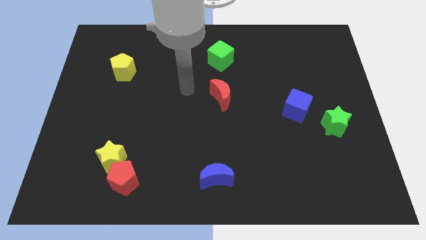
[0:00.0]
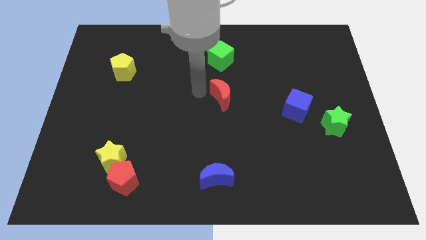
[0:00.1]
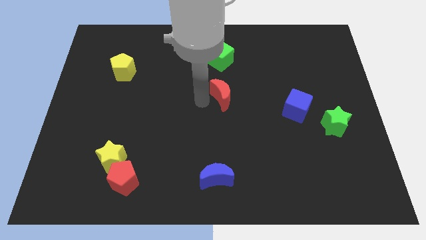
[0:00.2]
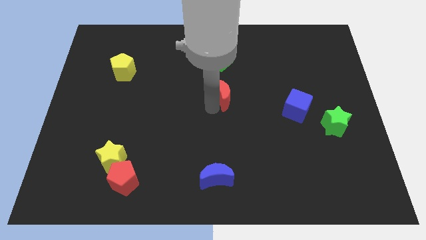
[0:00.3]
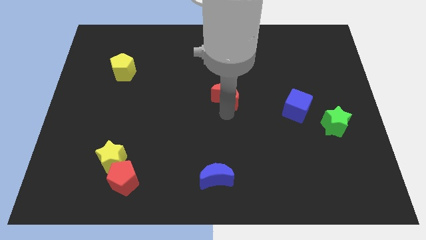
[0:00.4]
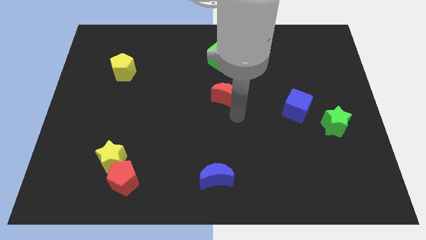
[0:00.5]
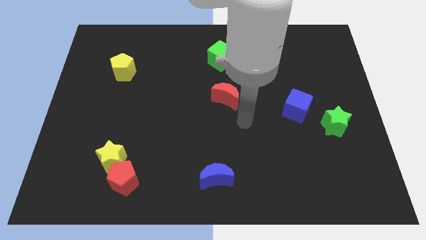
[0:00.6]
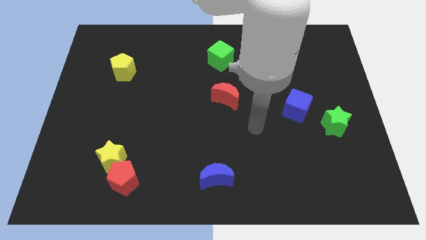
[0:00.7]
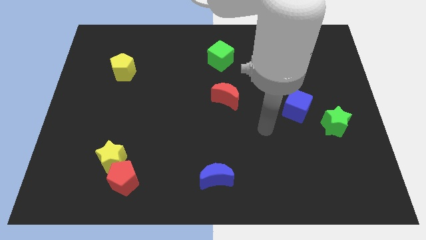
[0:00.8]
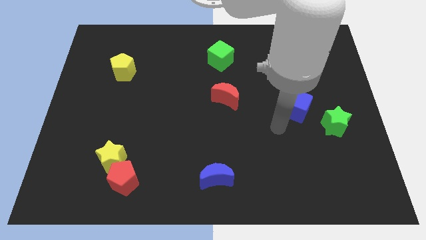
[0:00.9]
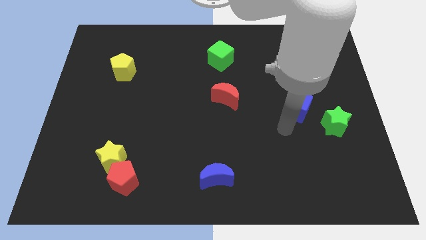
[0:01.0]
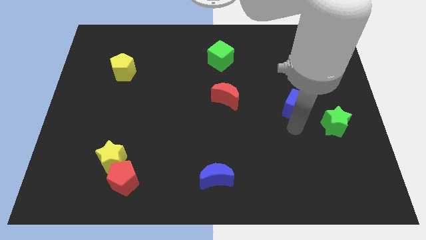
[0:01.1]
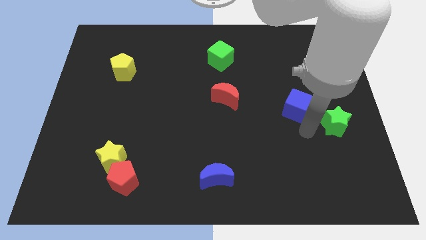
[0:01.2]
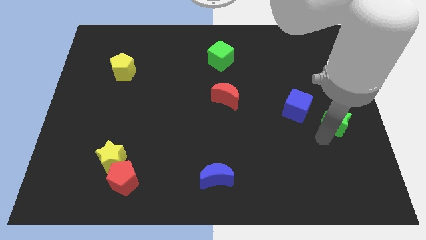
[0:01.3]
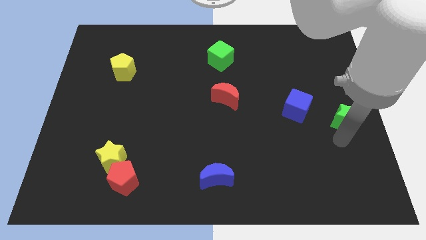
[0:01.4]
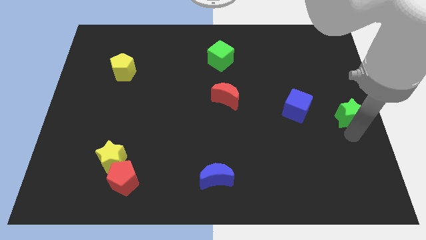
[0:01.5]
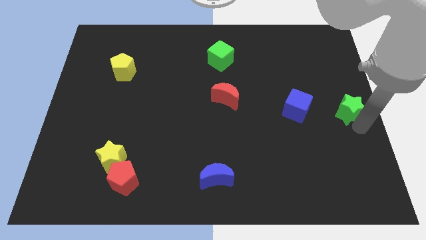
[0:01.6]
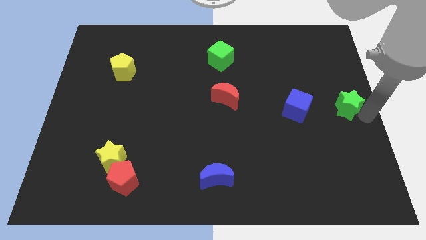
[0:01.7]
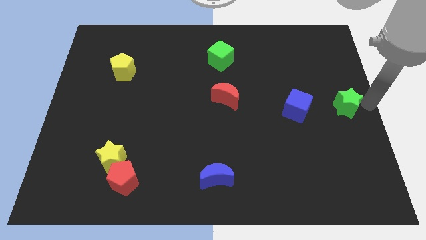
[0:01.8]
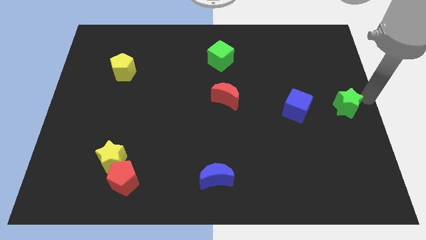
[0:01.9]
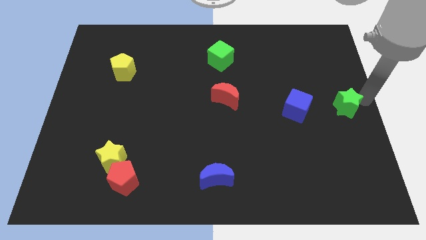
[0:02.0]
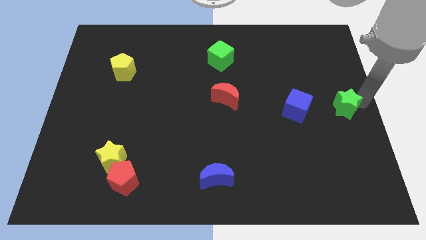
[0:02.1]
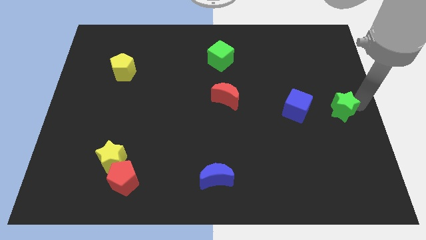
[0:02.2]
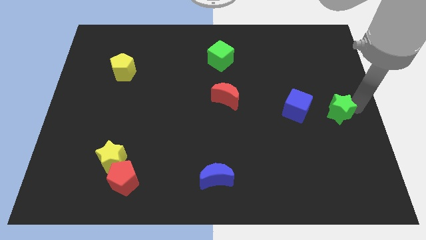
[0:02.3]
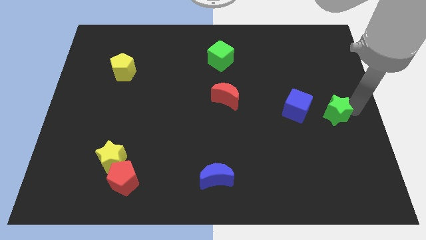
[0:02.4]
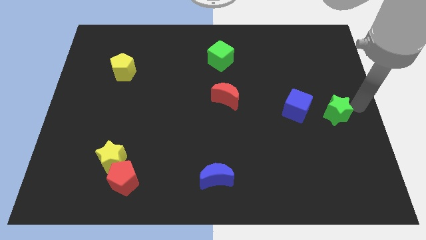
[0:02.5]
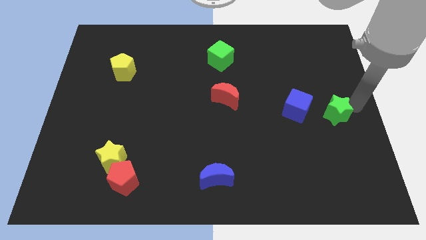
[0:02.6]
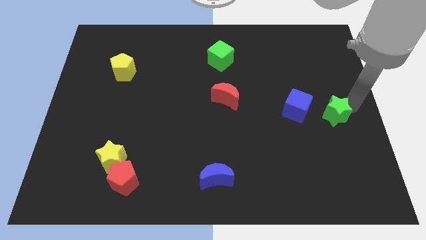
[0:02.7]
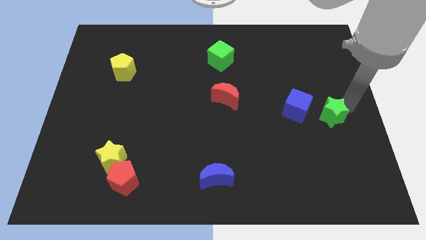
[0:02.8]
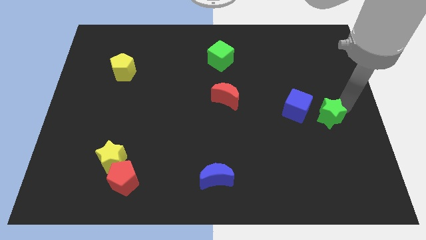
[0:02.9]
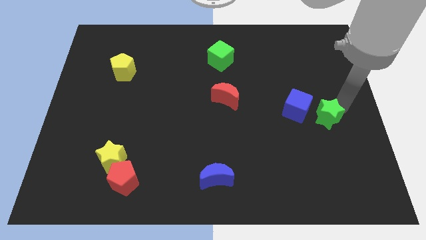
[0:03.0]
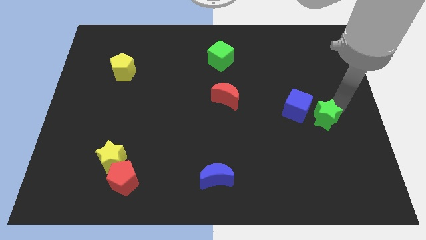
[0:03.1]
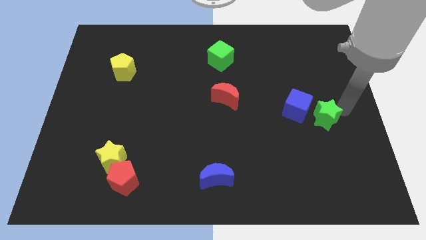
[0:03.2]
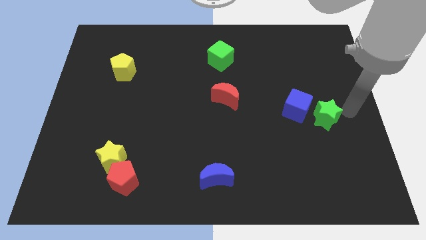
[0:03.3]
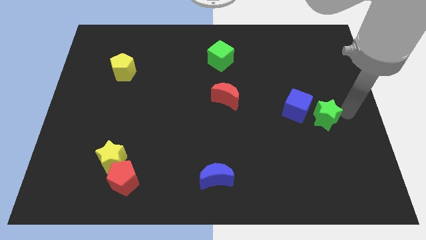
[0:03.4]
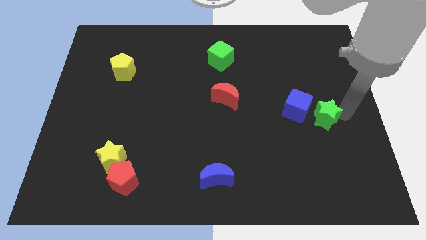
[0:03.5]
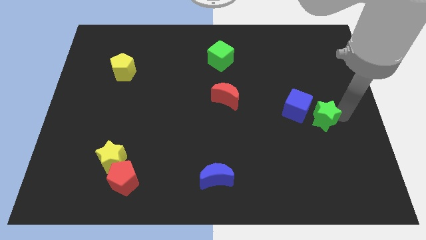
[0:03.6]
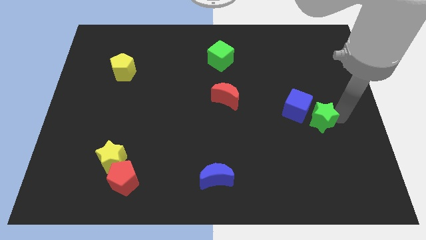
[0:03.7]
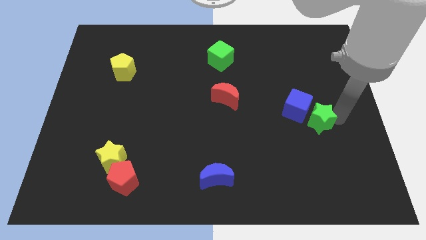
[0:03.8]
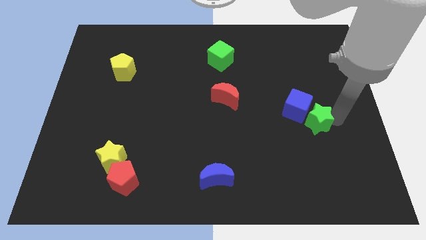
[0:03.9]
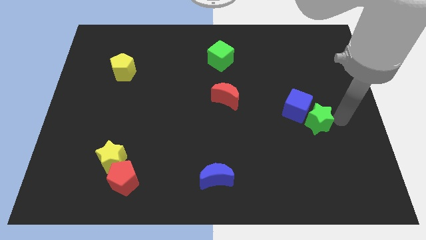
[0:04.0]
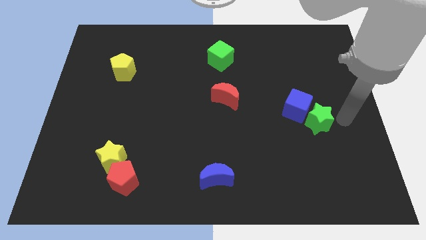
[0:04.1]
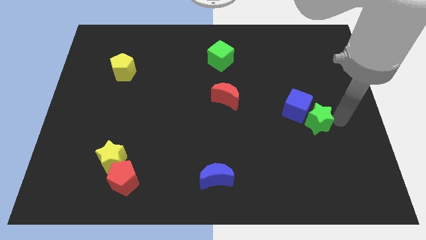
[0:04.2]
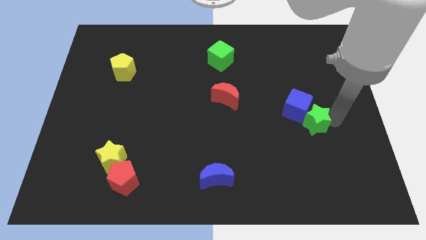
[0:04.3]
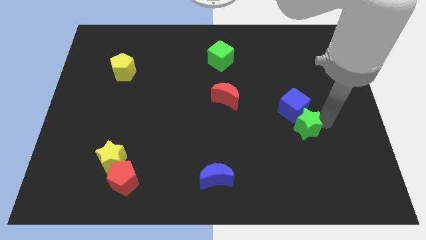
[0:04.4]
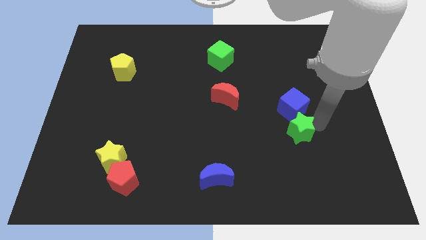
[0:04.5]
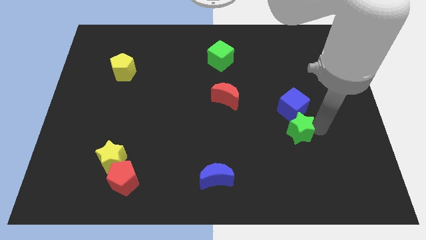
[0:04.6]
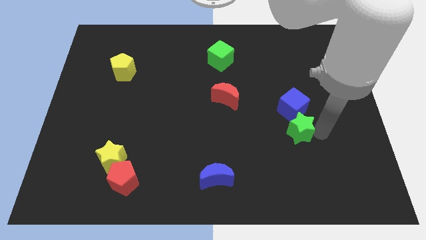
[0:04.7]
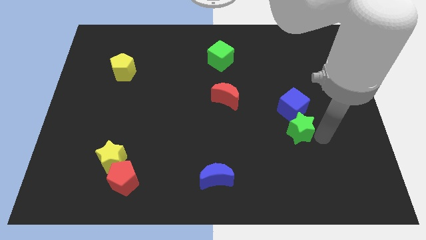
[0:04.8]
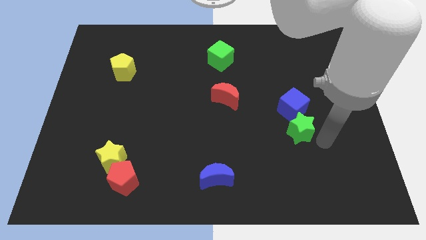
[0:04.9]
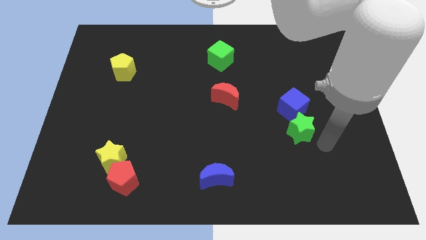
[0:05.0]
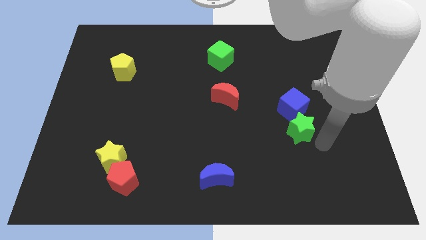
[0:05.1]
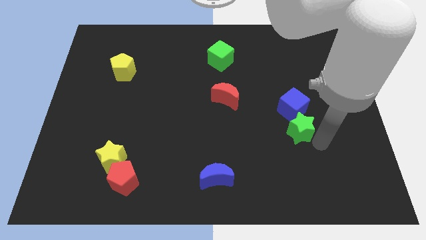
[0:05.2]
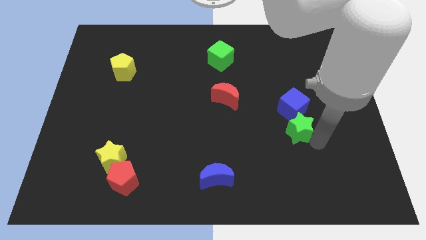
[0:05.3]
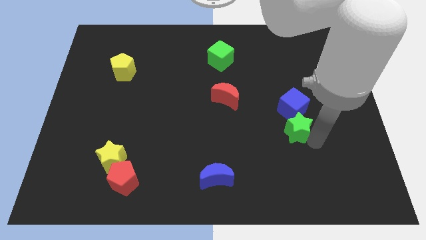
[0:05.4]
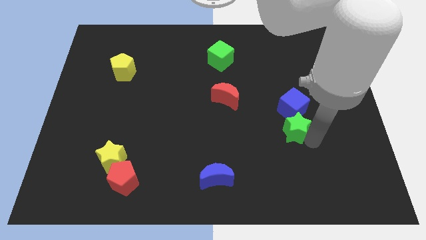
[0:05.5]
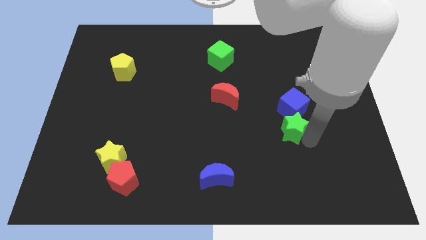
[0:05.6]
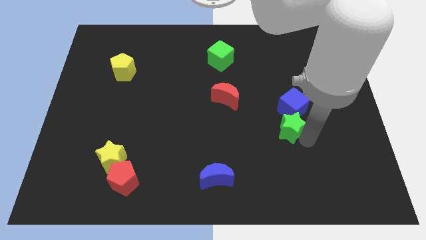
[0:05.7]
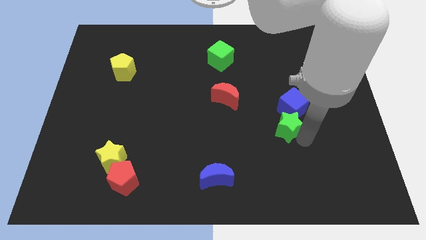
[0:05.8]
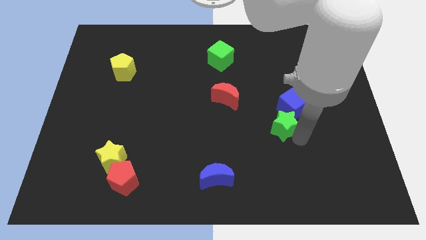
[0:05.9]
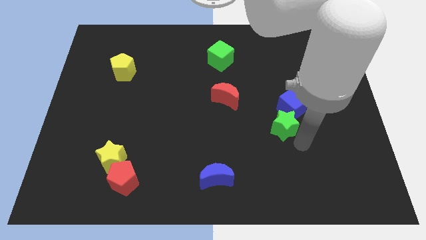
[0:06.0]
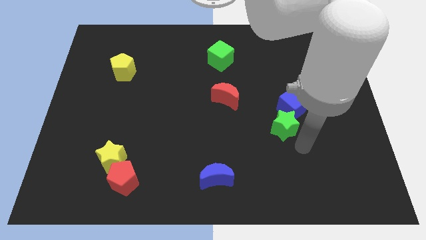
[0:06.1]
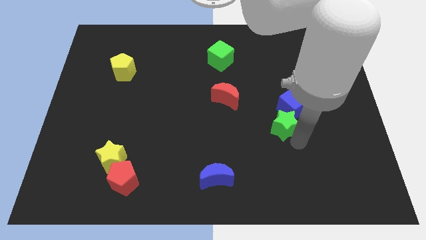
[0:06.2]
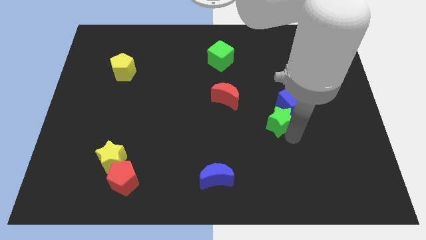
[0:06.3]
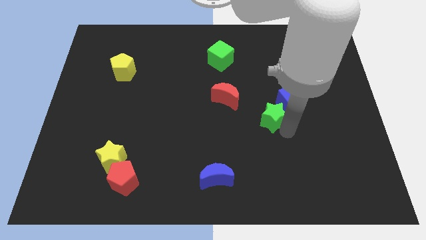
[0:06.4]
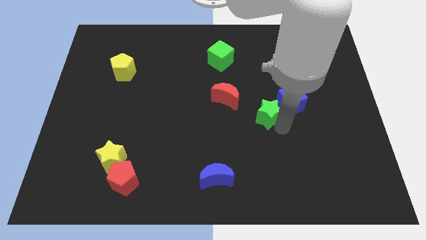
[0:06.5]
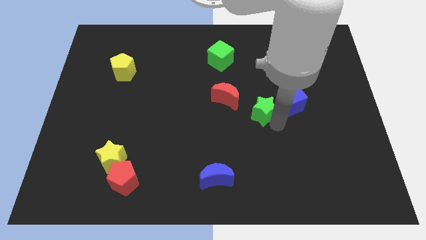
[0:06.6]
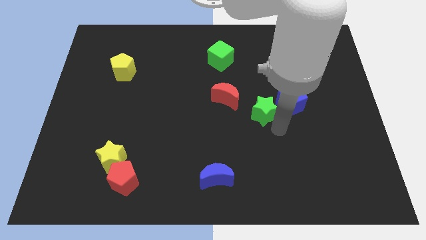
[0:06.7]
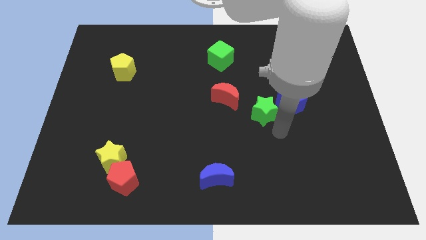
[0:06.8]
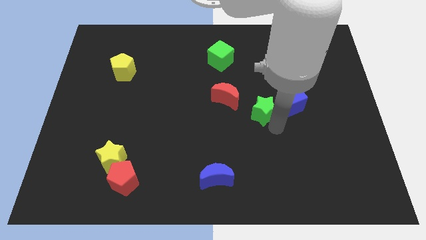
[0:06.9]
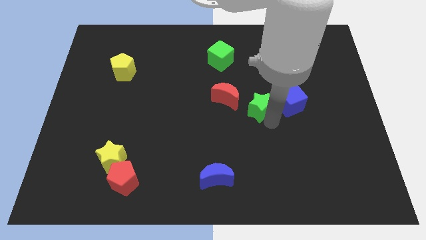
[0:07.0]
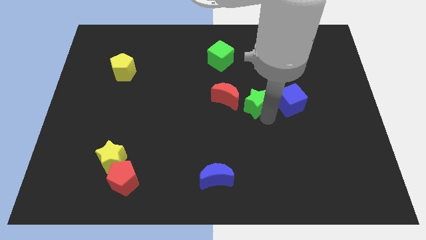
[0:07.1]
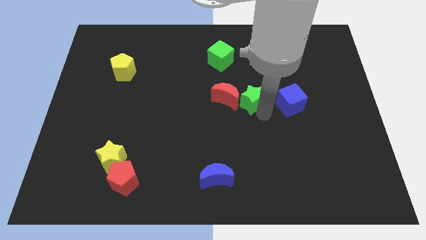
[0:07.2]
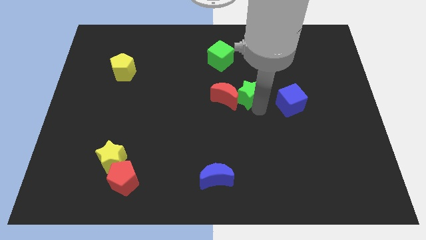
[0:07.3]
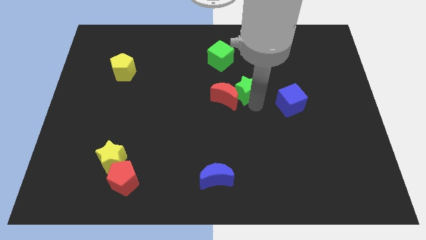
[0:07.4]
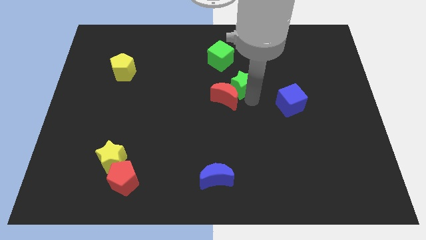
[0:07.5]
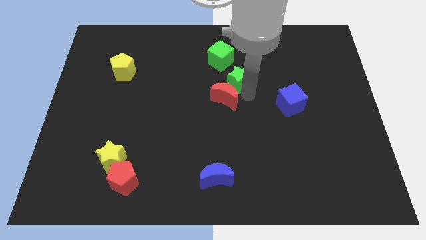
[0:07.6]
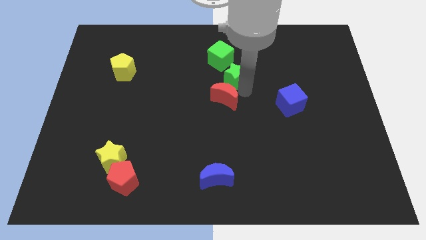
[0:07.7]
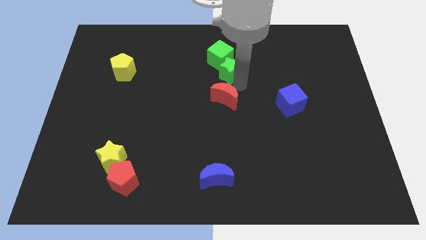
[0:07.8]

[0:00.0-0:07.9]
push the green star to the green cube

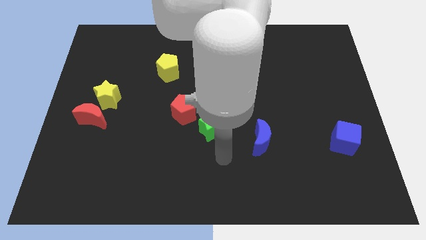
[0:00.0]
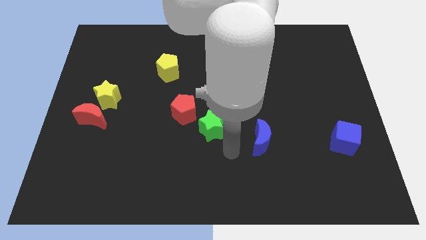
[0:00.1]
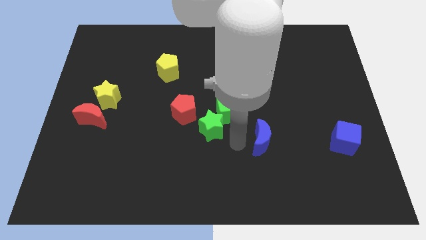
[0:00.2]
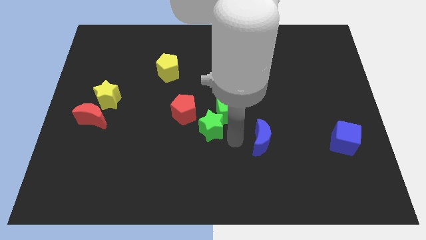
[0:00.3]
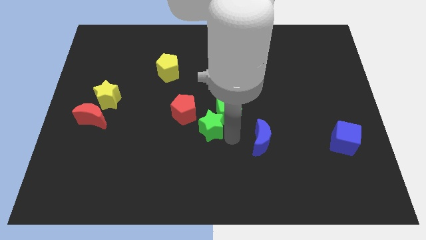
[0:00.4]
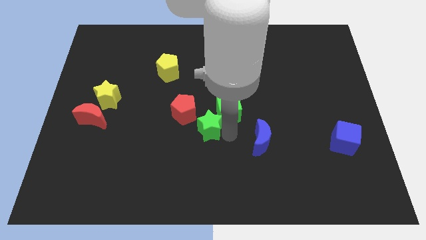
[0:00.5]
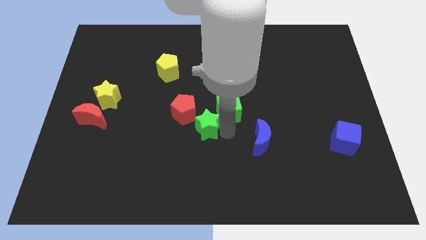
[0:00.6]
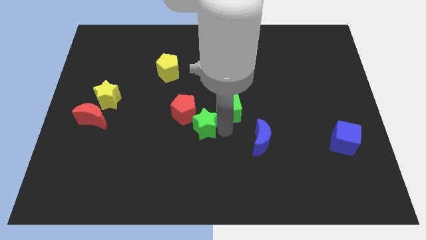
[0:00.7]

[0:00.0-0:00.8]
move the green star to the red pentagon
